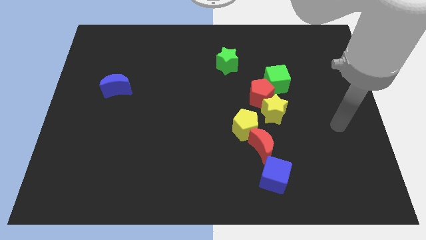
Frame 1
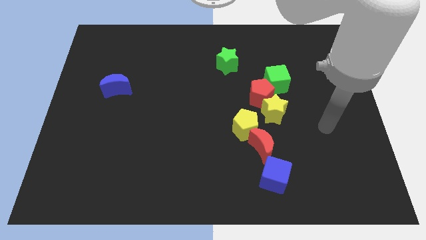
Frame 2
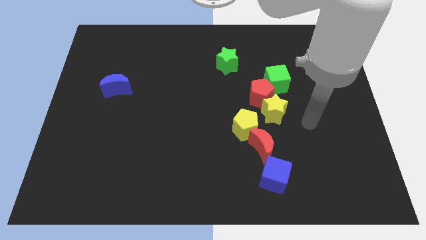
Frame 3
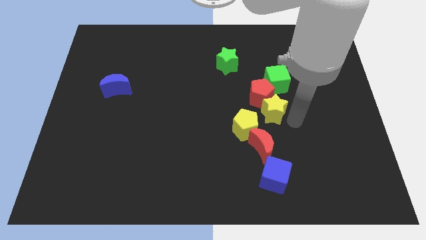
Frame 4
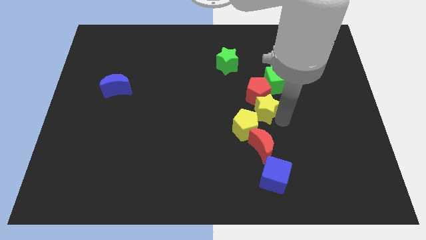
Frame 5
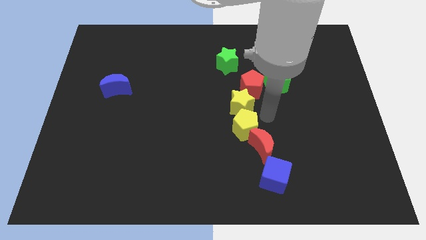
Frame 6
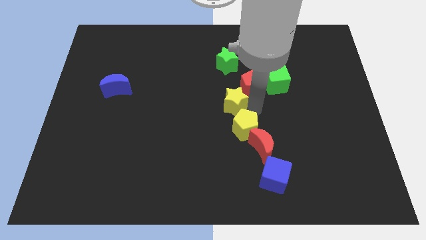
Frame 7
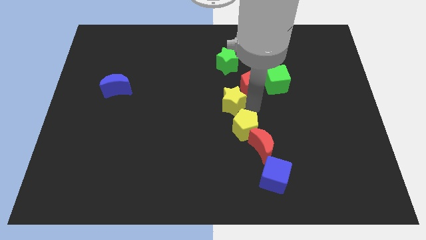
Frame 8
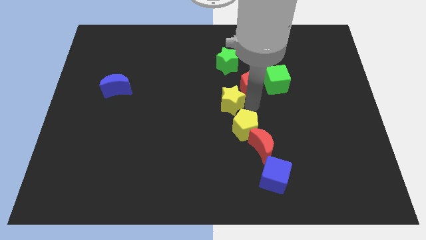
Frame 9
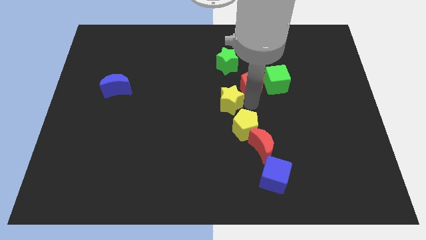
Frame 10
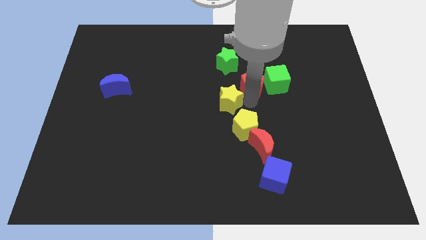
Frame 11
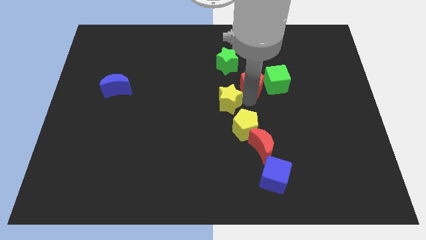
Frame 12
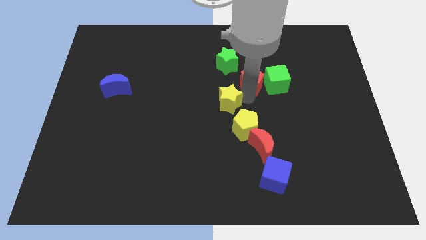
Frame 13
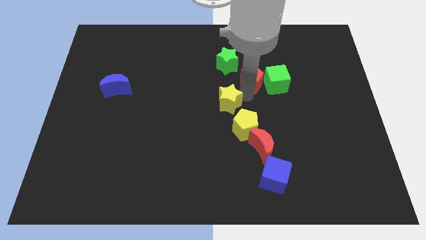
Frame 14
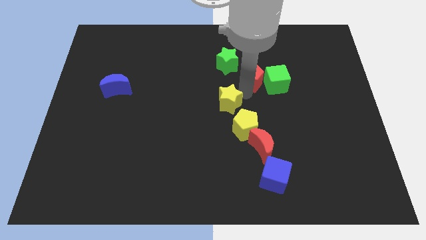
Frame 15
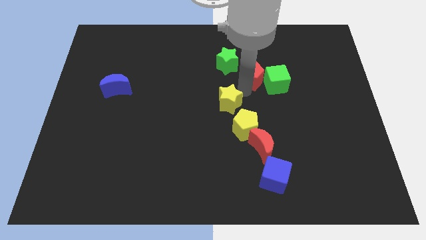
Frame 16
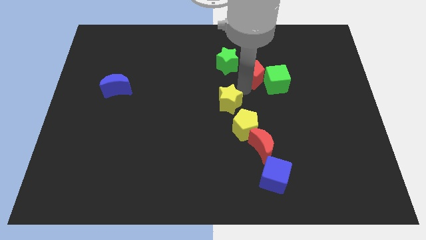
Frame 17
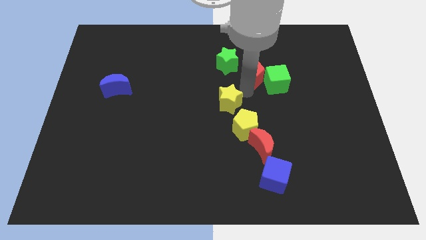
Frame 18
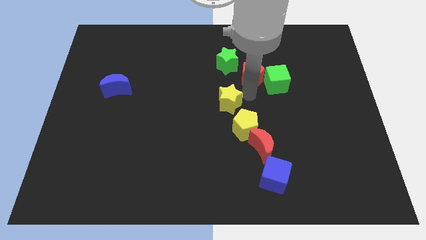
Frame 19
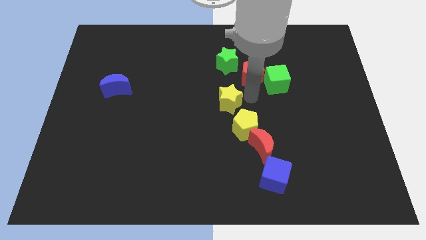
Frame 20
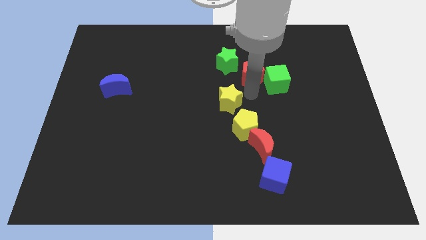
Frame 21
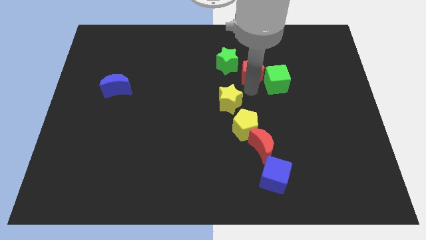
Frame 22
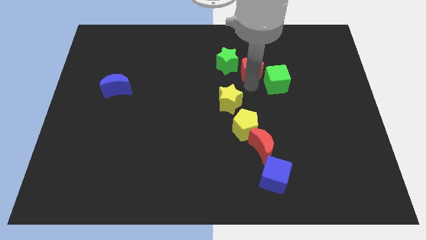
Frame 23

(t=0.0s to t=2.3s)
separate the red pentagon from the yellow star, green cube, and yellow pentagon

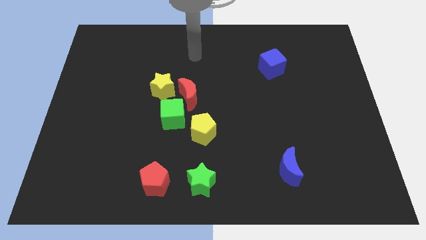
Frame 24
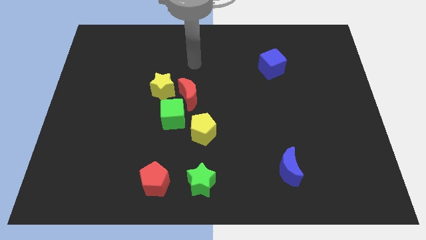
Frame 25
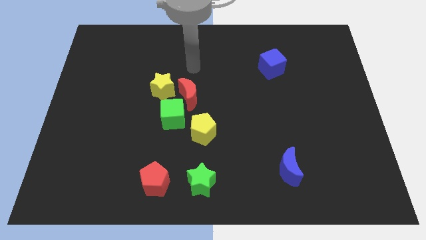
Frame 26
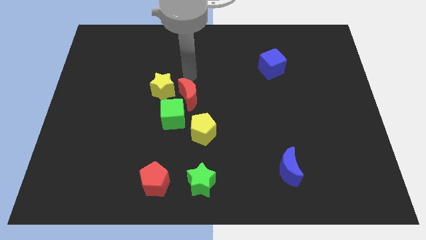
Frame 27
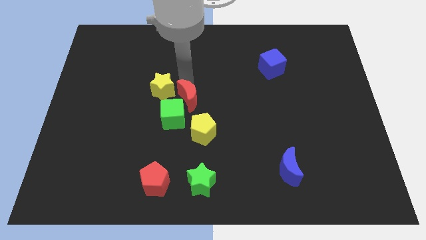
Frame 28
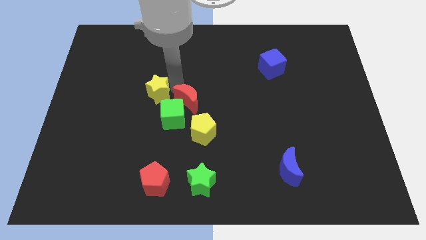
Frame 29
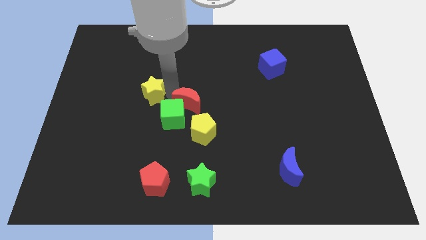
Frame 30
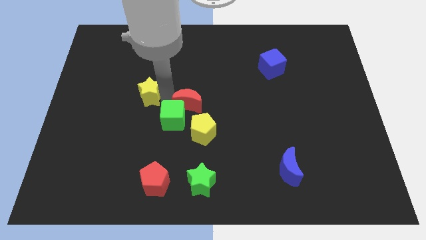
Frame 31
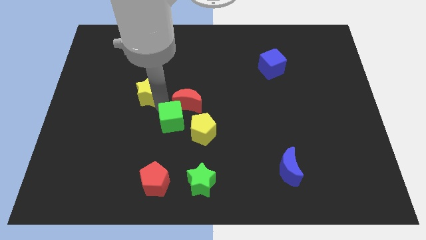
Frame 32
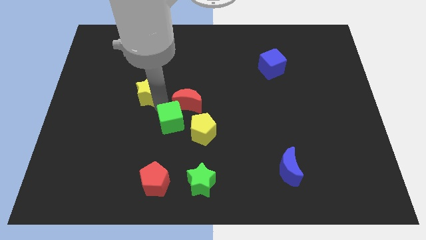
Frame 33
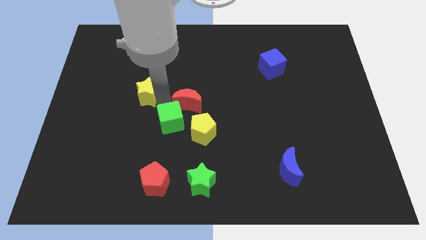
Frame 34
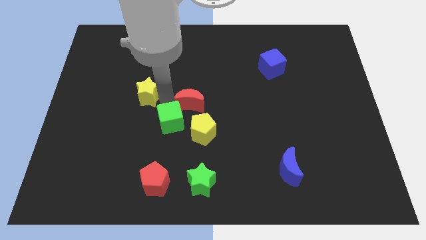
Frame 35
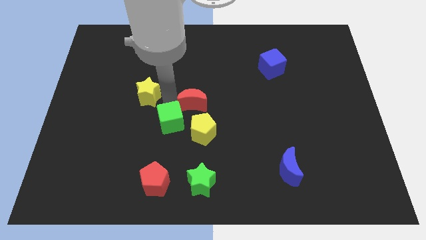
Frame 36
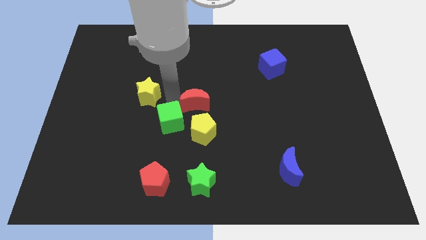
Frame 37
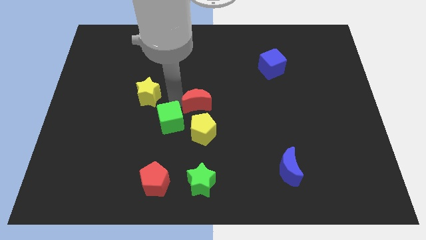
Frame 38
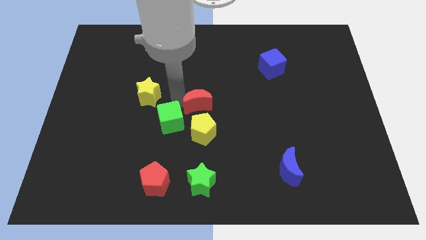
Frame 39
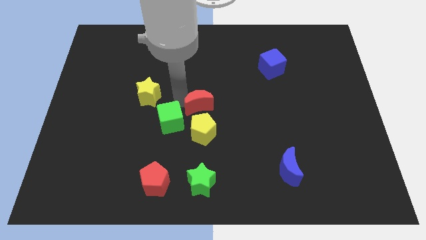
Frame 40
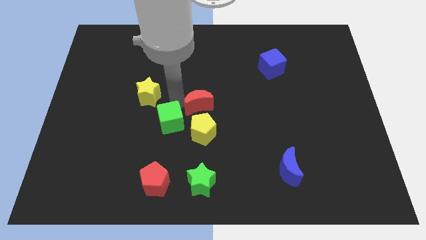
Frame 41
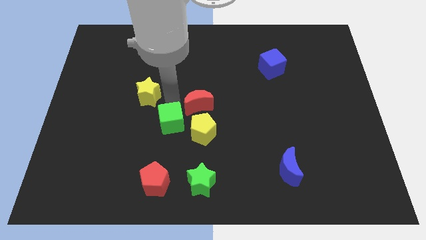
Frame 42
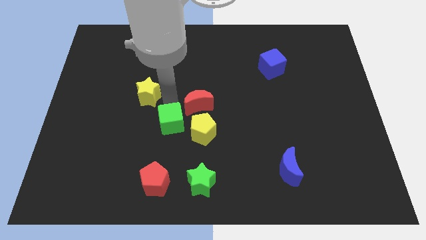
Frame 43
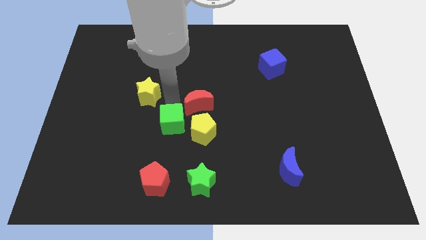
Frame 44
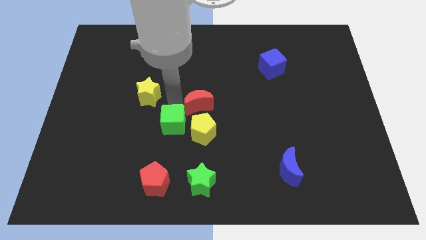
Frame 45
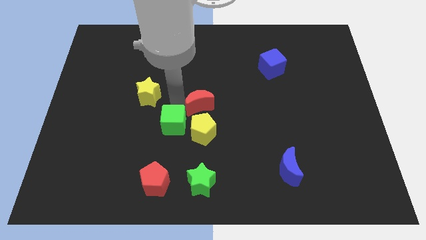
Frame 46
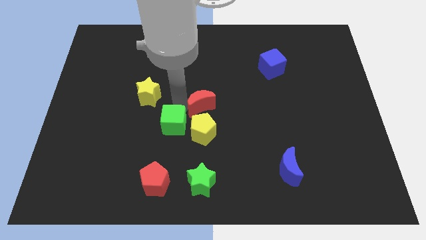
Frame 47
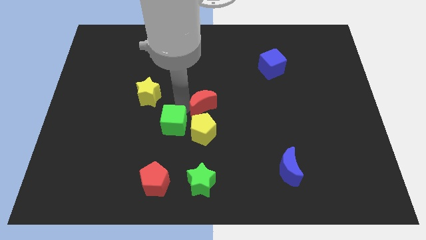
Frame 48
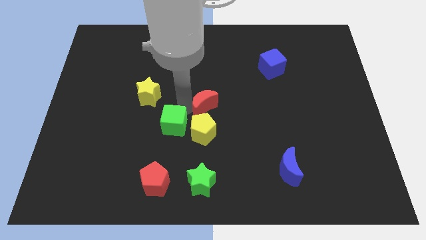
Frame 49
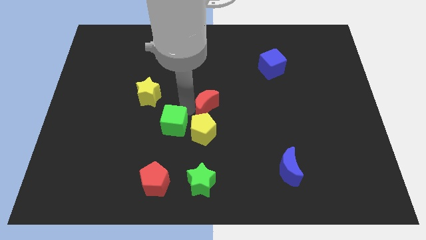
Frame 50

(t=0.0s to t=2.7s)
move the red moon away from the yellow star and green cube

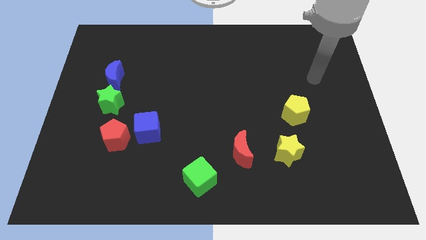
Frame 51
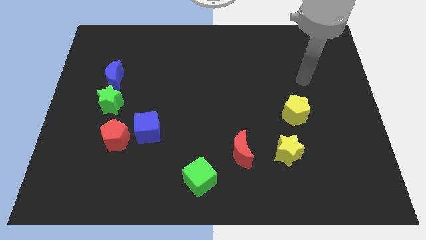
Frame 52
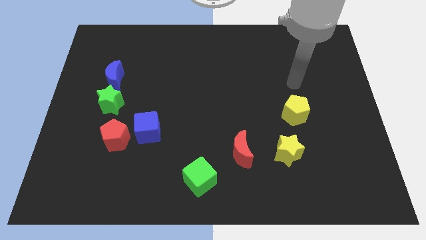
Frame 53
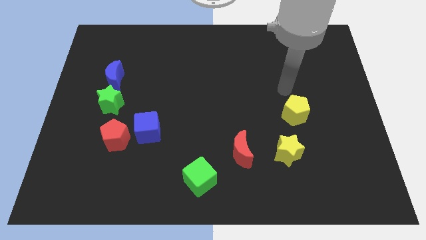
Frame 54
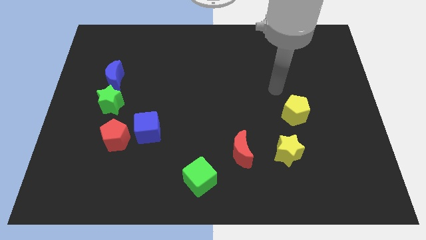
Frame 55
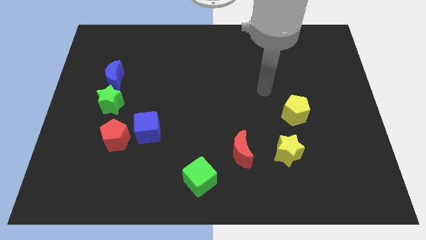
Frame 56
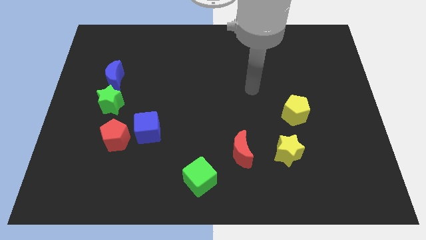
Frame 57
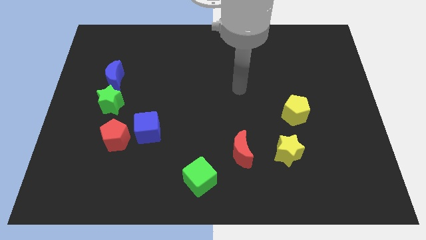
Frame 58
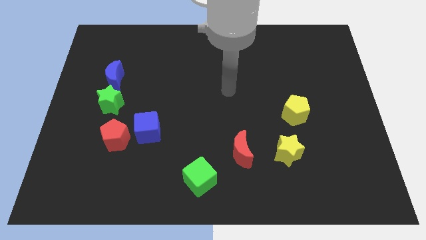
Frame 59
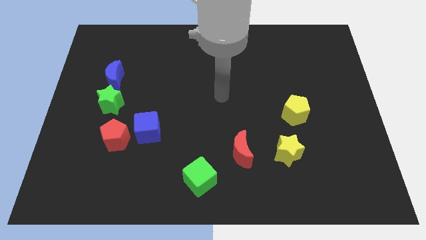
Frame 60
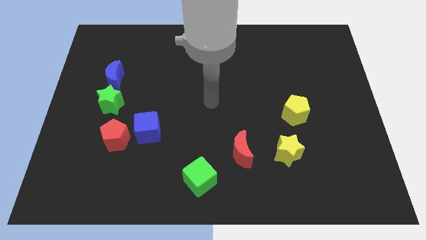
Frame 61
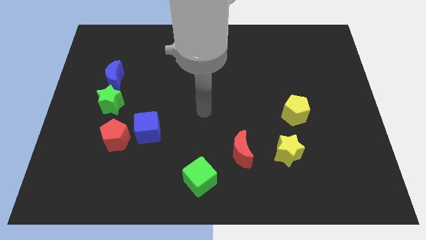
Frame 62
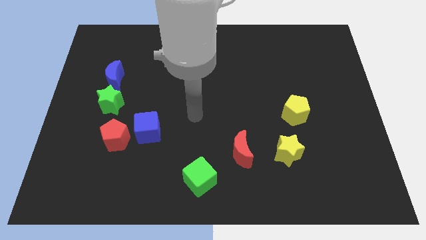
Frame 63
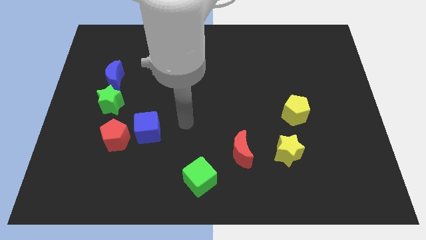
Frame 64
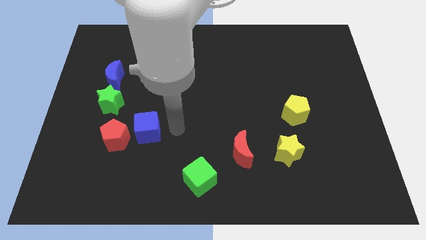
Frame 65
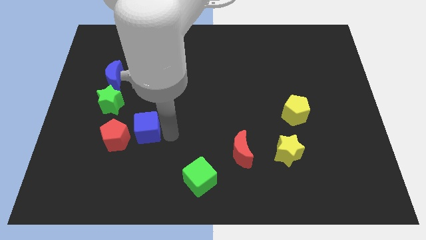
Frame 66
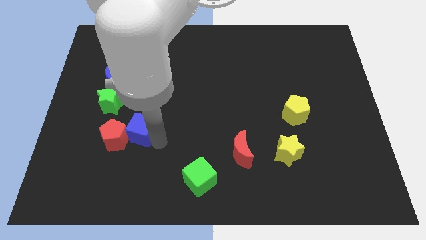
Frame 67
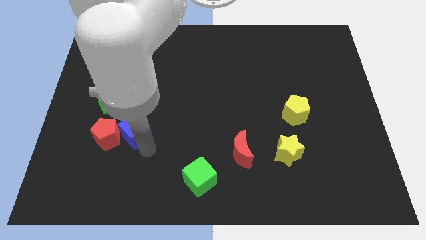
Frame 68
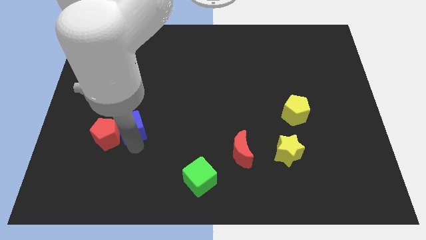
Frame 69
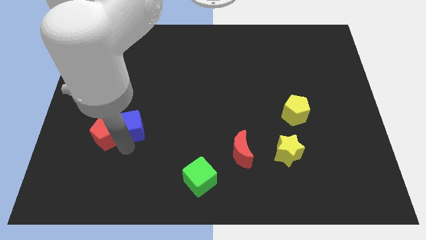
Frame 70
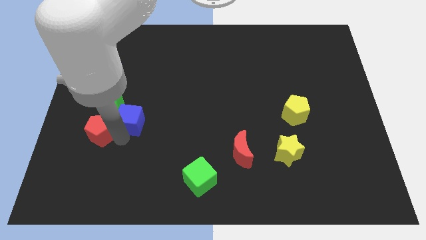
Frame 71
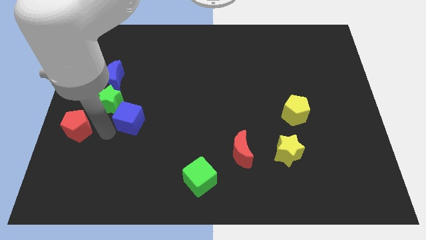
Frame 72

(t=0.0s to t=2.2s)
move the blue cube away from the red pentagon

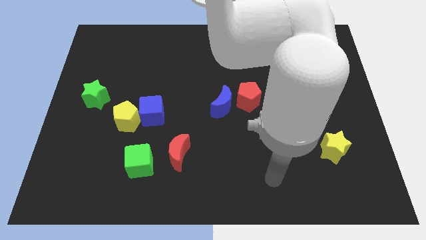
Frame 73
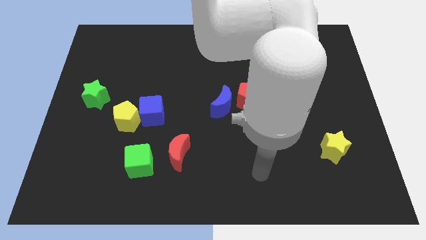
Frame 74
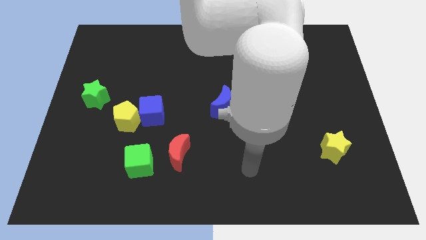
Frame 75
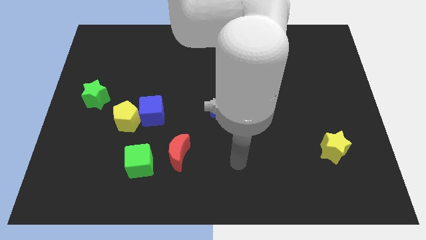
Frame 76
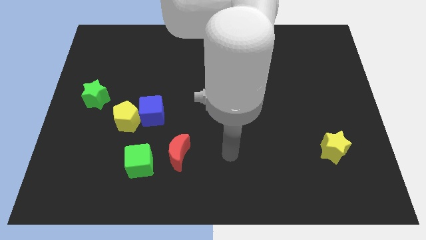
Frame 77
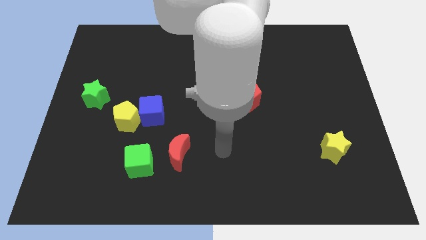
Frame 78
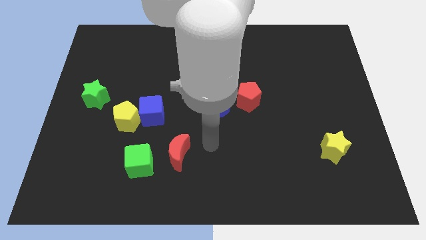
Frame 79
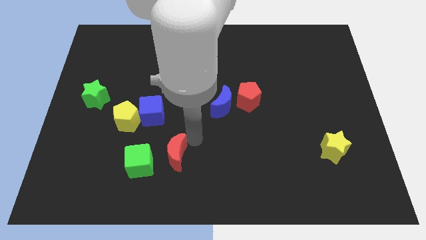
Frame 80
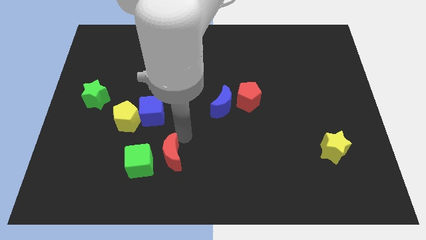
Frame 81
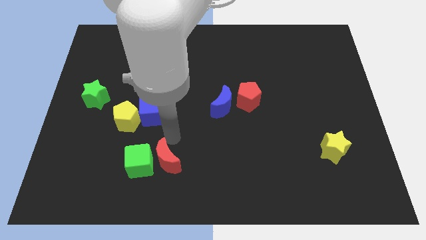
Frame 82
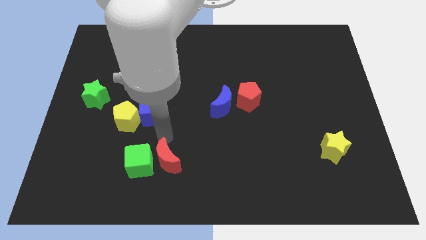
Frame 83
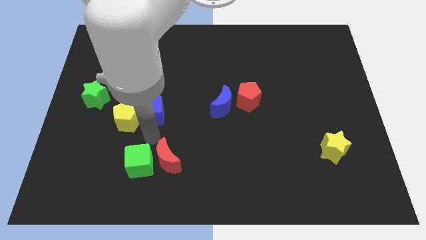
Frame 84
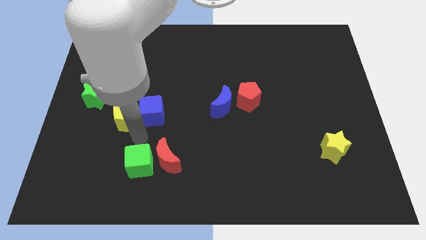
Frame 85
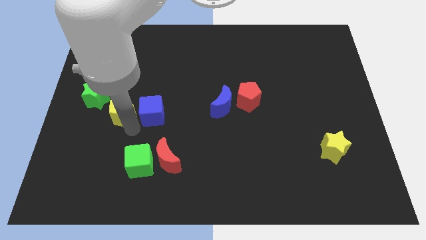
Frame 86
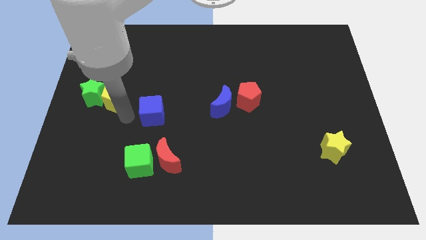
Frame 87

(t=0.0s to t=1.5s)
separate the blue cube from the yellow pentagon

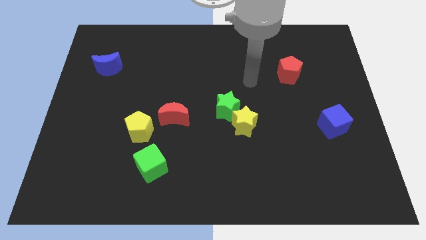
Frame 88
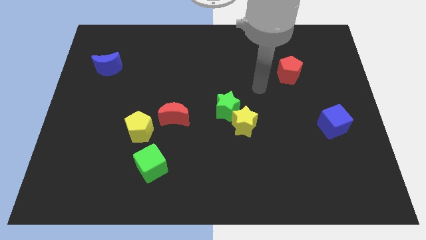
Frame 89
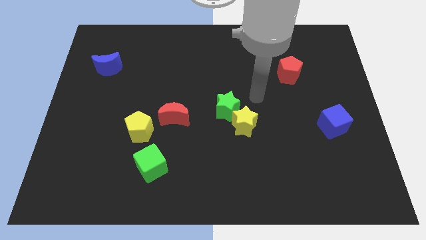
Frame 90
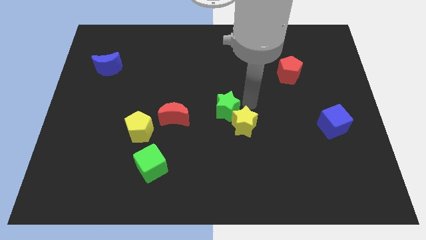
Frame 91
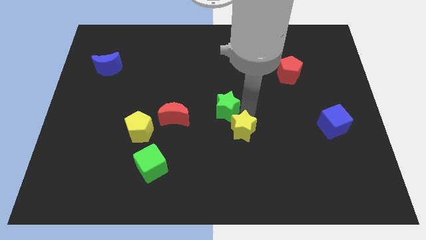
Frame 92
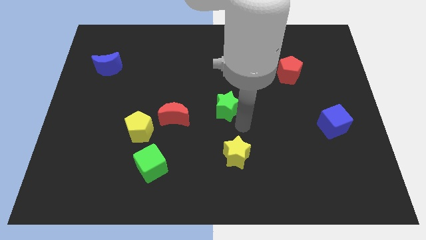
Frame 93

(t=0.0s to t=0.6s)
move the green star away from the yellow star
